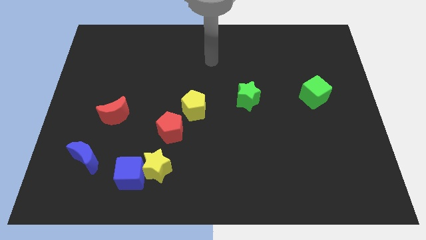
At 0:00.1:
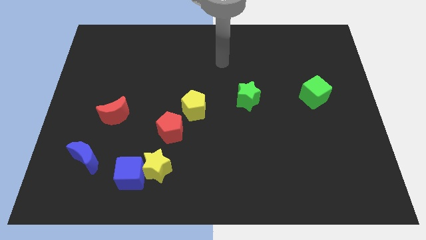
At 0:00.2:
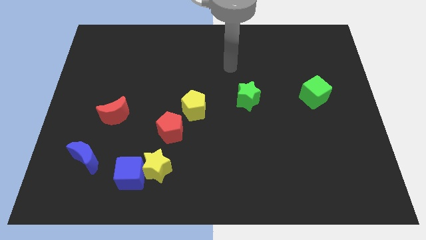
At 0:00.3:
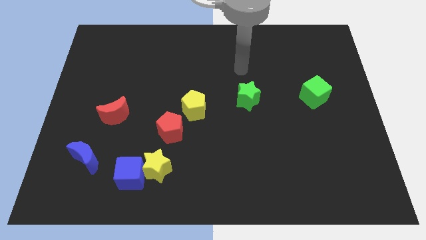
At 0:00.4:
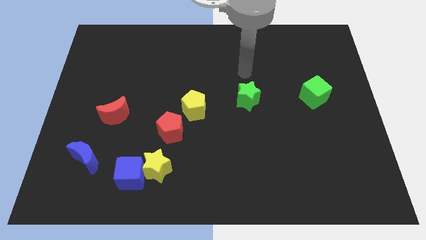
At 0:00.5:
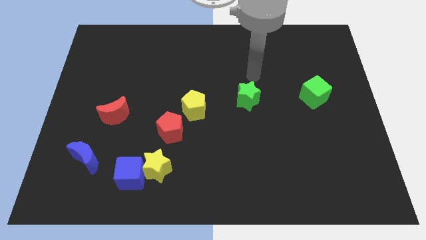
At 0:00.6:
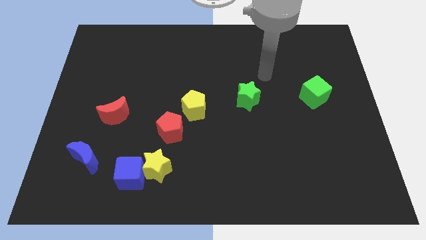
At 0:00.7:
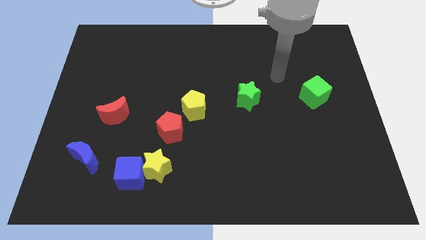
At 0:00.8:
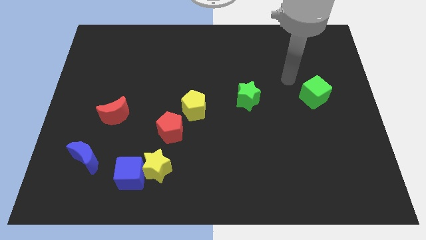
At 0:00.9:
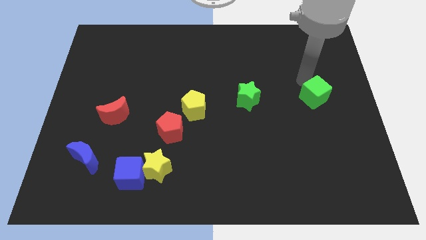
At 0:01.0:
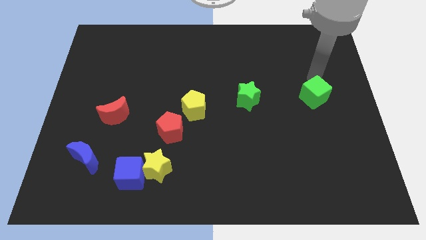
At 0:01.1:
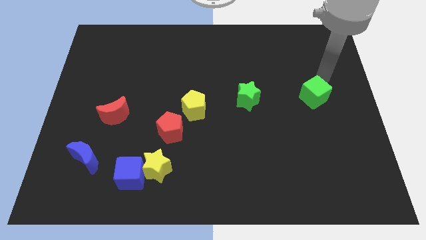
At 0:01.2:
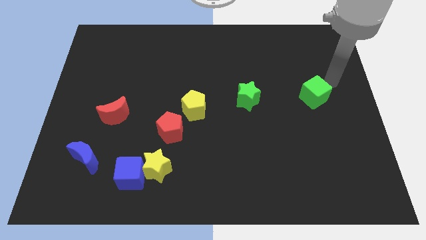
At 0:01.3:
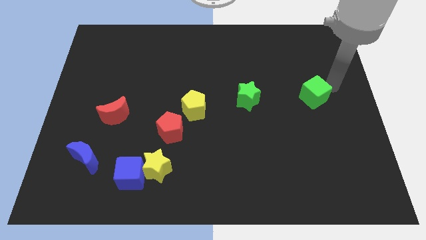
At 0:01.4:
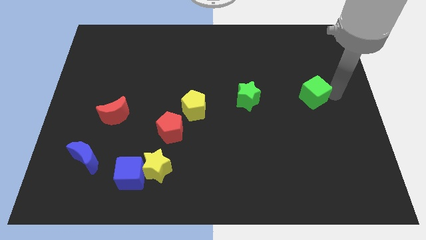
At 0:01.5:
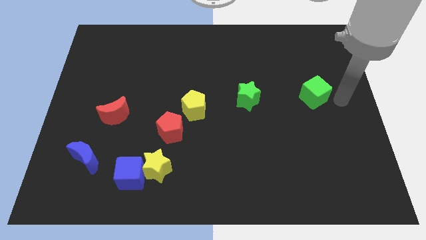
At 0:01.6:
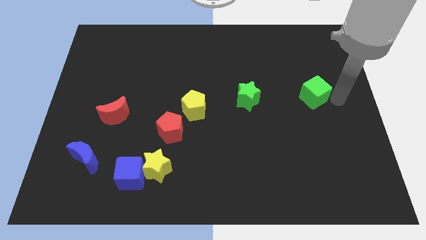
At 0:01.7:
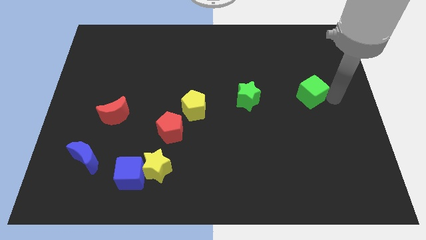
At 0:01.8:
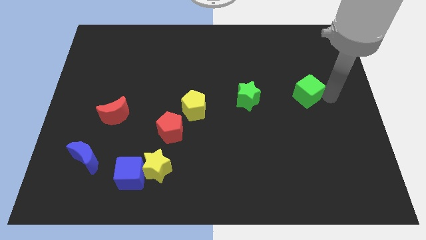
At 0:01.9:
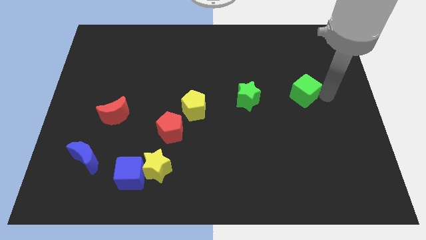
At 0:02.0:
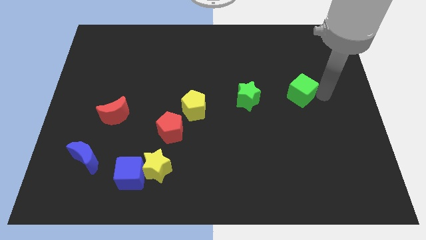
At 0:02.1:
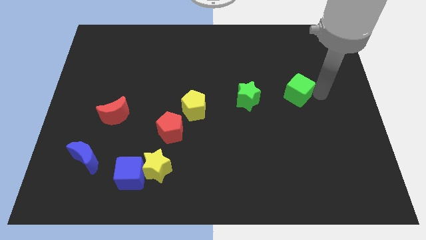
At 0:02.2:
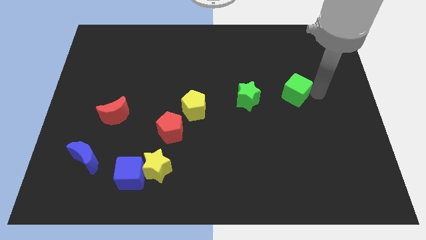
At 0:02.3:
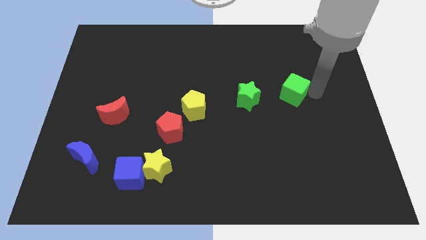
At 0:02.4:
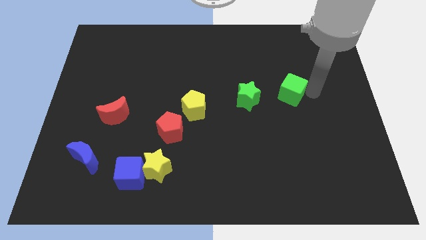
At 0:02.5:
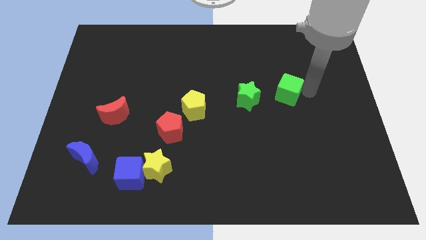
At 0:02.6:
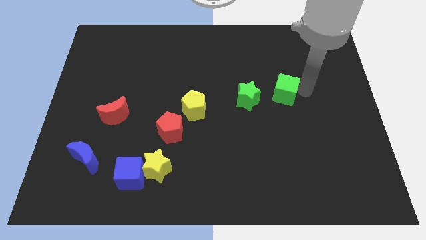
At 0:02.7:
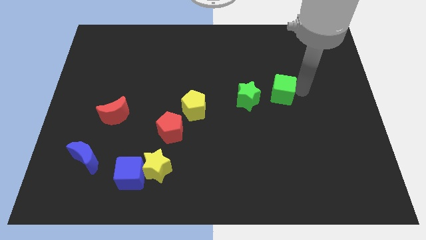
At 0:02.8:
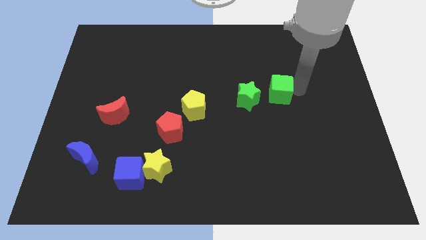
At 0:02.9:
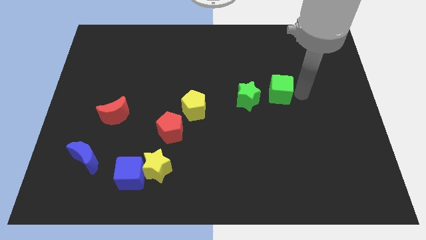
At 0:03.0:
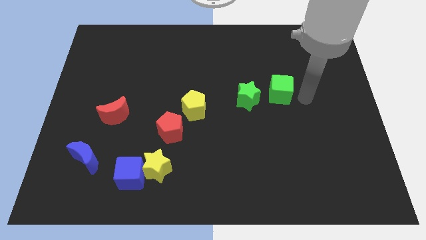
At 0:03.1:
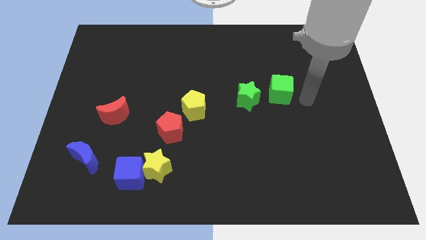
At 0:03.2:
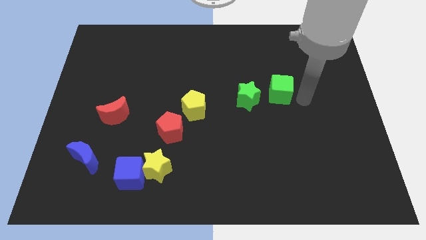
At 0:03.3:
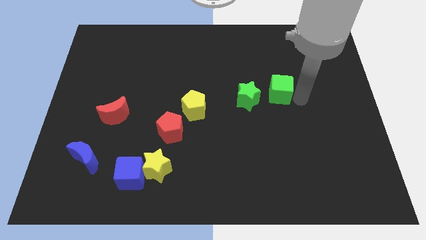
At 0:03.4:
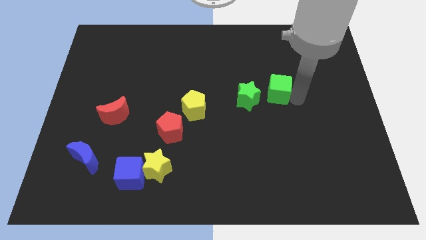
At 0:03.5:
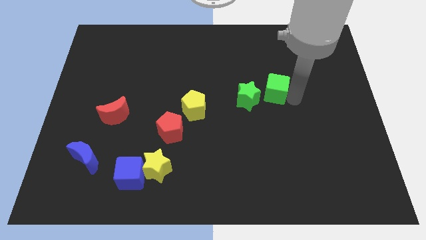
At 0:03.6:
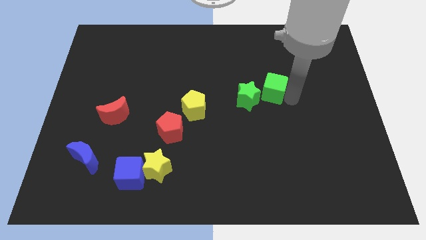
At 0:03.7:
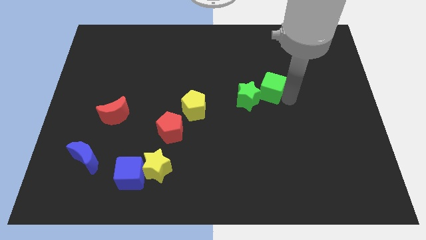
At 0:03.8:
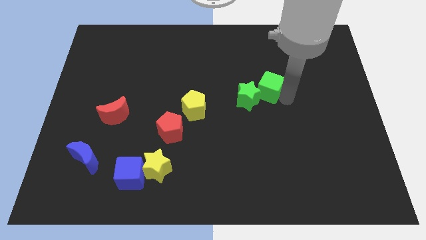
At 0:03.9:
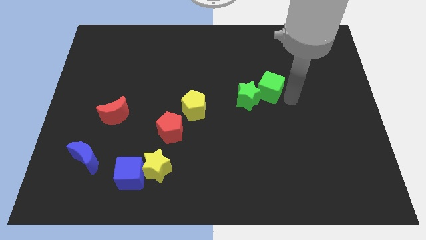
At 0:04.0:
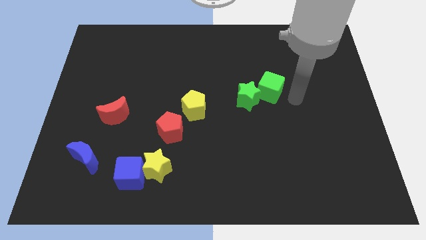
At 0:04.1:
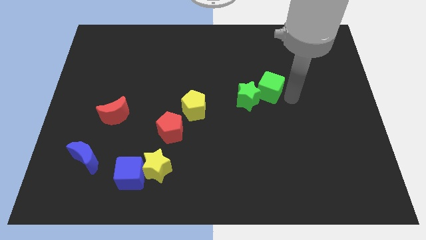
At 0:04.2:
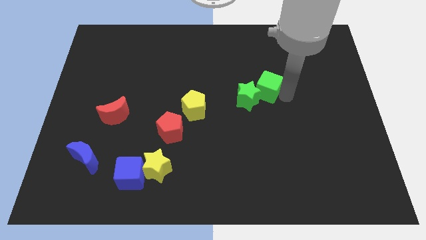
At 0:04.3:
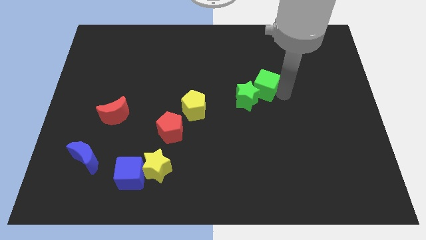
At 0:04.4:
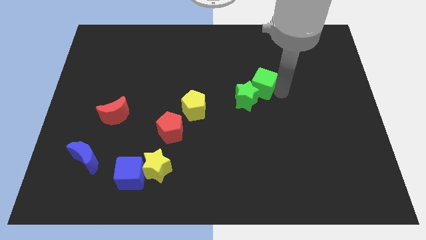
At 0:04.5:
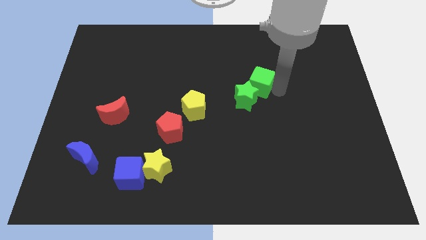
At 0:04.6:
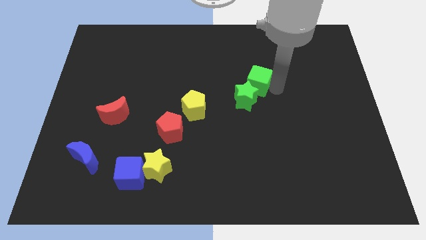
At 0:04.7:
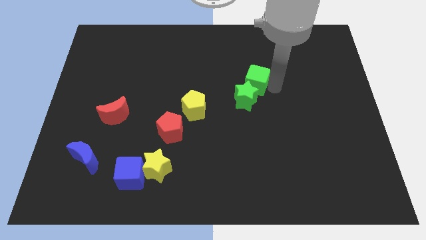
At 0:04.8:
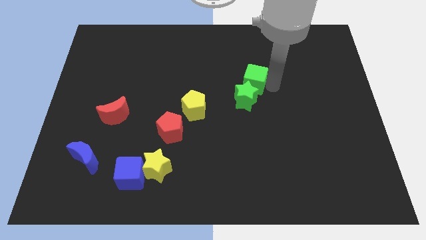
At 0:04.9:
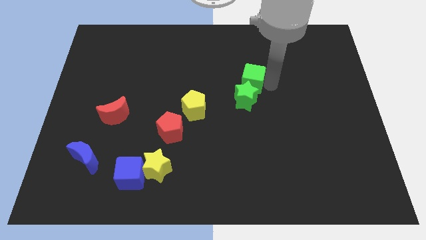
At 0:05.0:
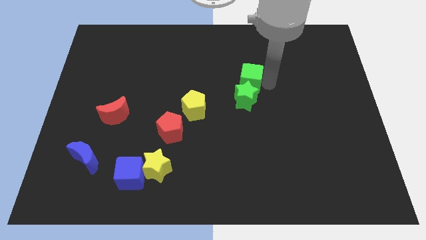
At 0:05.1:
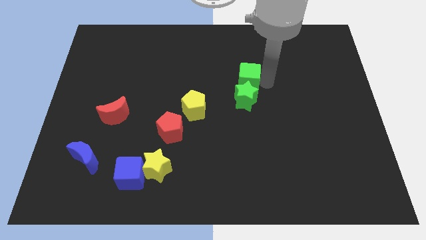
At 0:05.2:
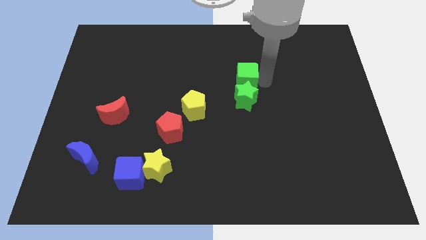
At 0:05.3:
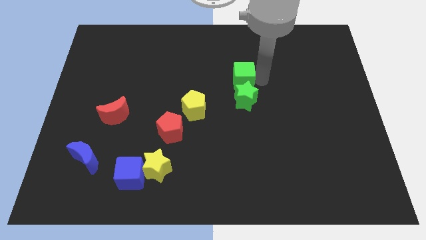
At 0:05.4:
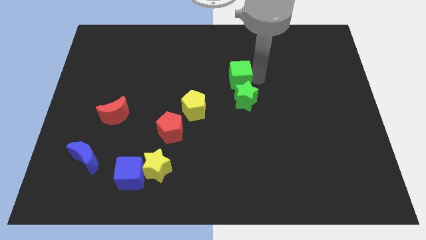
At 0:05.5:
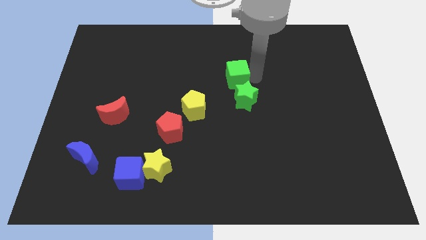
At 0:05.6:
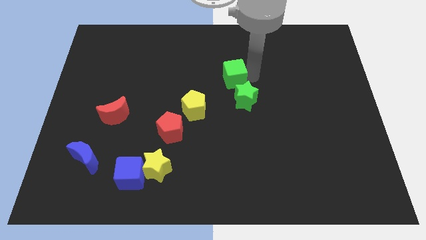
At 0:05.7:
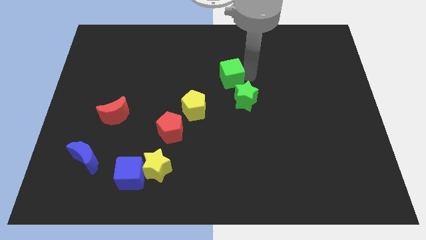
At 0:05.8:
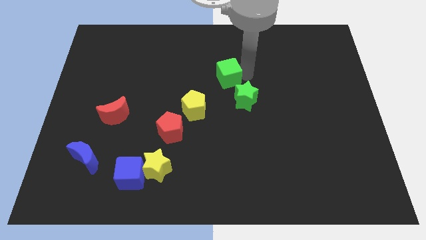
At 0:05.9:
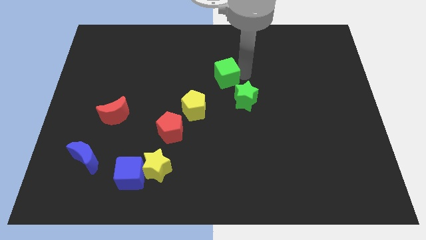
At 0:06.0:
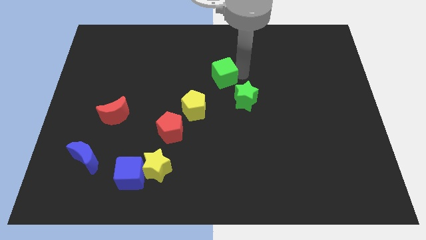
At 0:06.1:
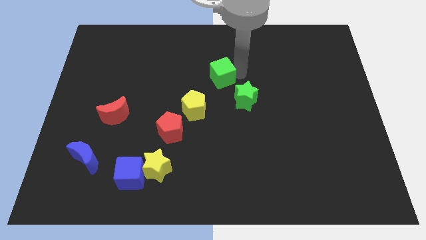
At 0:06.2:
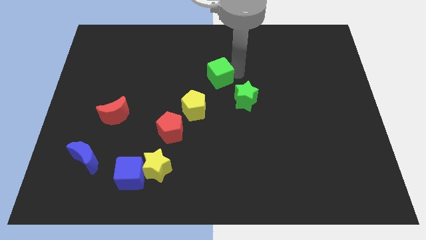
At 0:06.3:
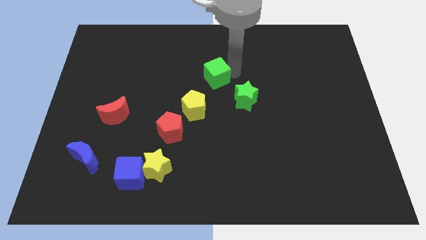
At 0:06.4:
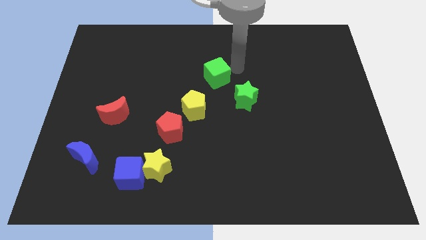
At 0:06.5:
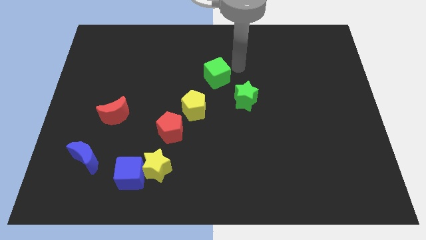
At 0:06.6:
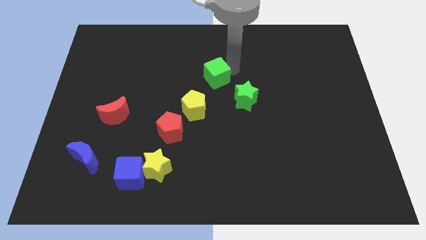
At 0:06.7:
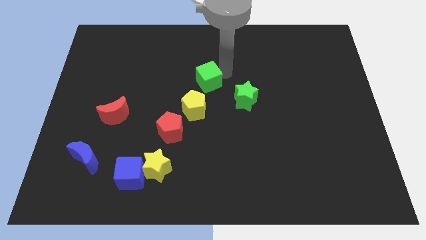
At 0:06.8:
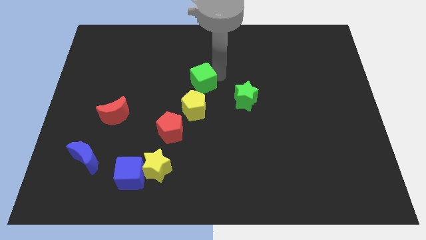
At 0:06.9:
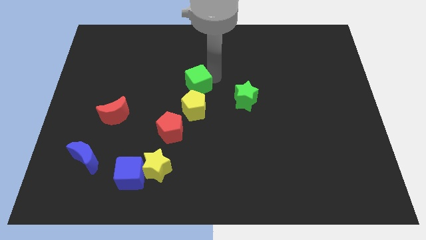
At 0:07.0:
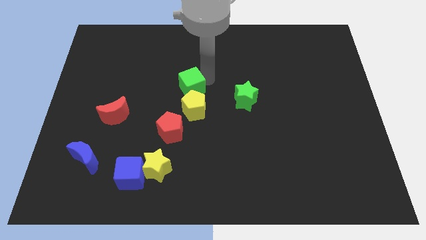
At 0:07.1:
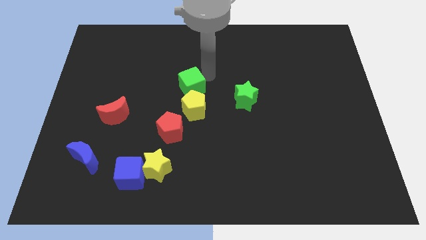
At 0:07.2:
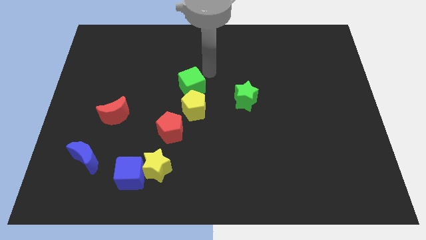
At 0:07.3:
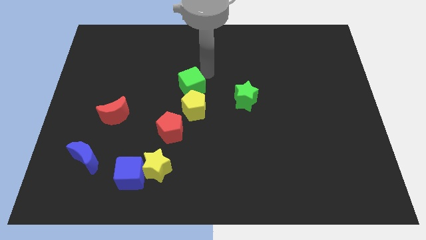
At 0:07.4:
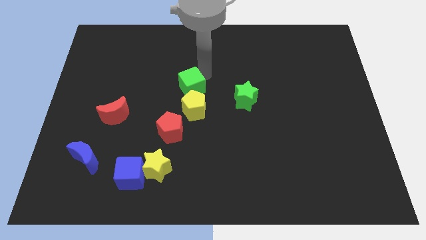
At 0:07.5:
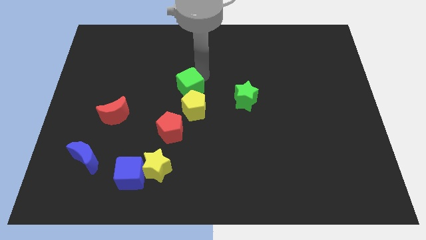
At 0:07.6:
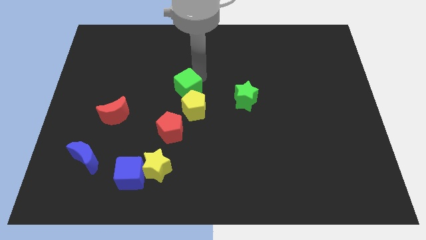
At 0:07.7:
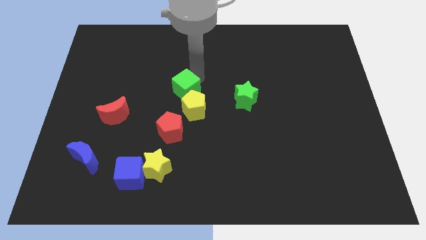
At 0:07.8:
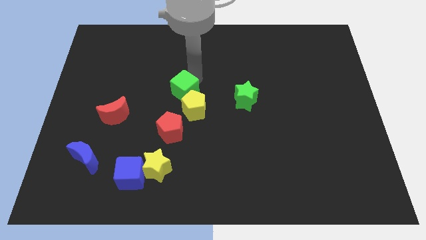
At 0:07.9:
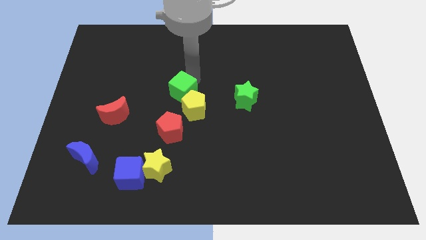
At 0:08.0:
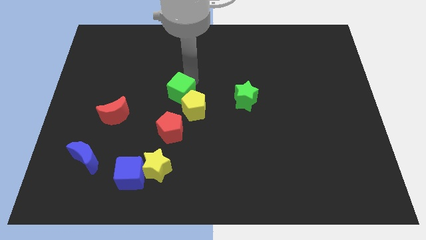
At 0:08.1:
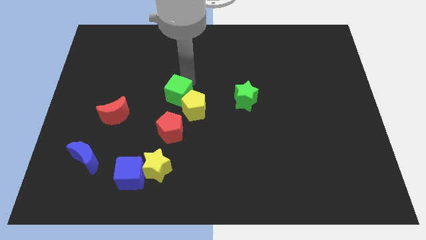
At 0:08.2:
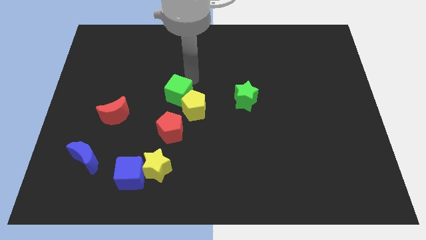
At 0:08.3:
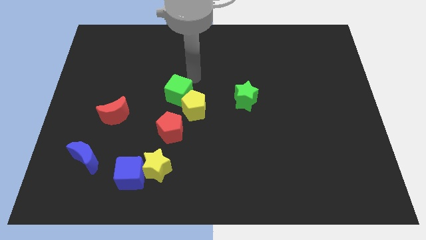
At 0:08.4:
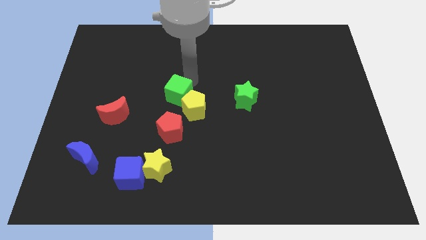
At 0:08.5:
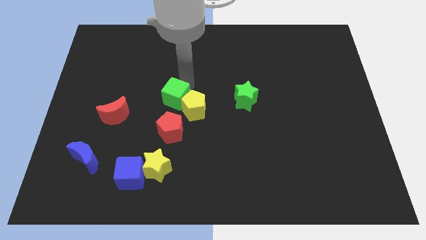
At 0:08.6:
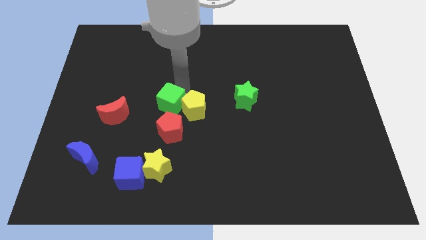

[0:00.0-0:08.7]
move the green cube just right of the red moon
